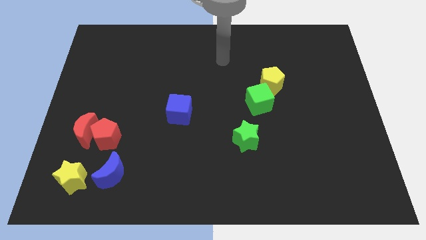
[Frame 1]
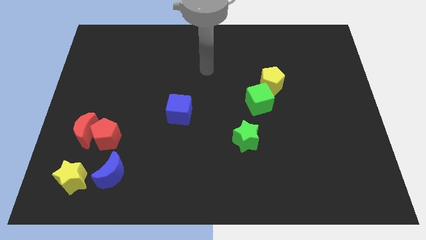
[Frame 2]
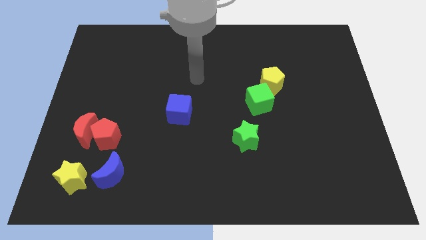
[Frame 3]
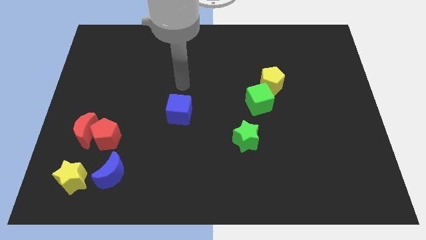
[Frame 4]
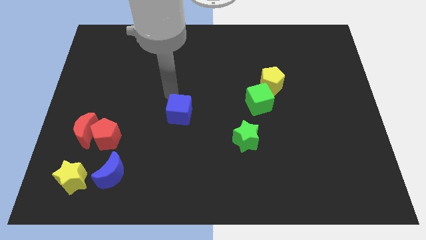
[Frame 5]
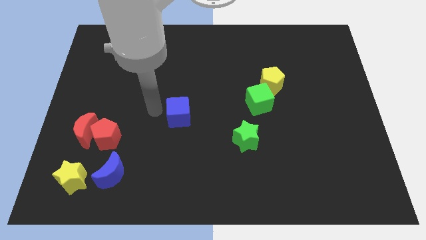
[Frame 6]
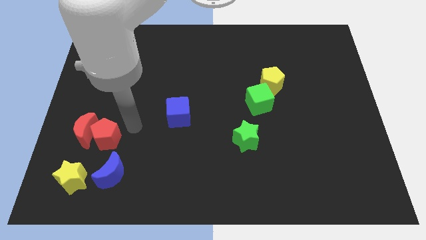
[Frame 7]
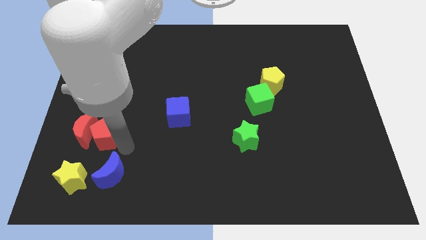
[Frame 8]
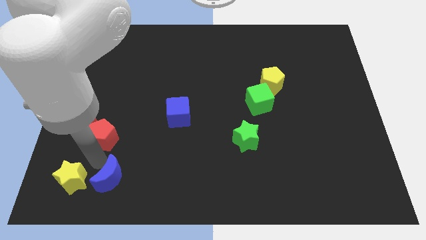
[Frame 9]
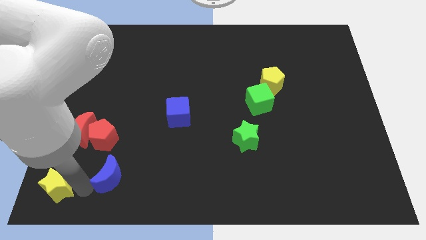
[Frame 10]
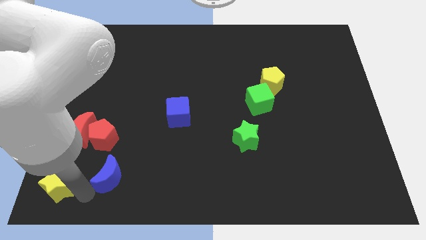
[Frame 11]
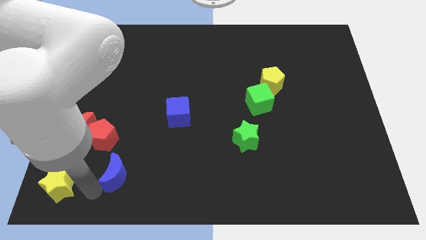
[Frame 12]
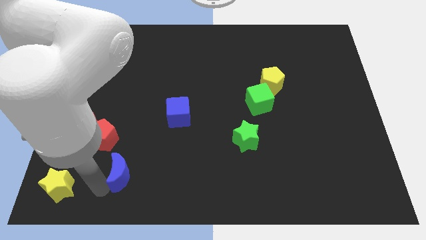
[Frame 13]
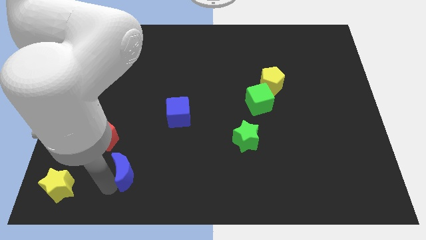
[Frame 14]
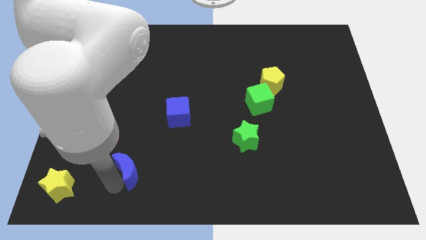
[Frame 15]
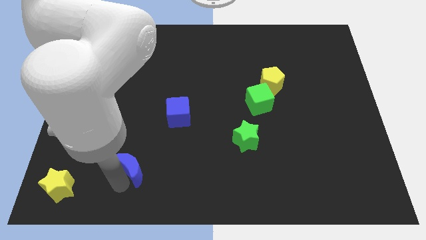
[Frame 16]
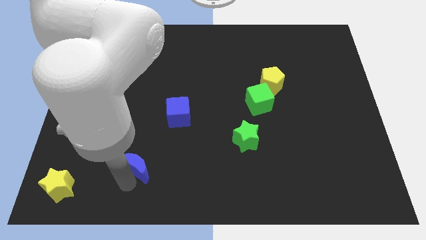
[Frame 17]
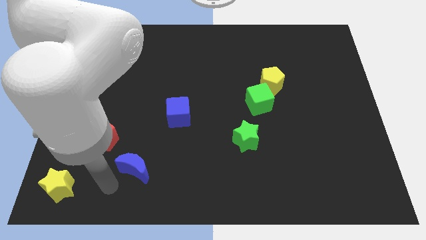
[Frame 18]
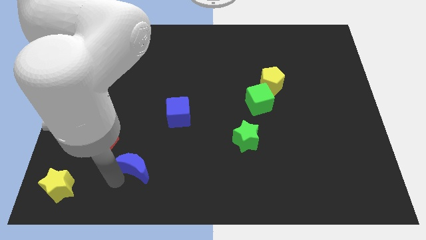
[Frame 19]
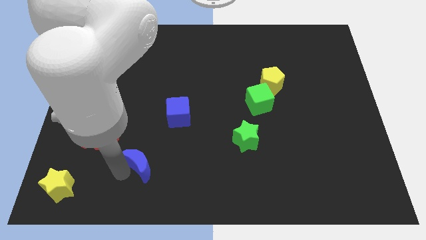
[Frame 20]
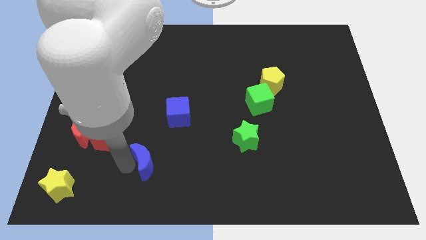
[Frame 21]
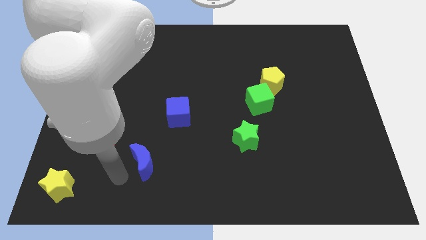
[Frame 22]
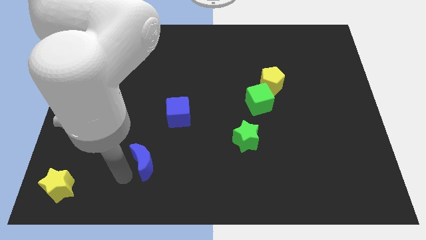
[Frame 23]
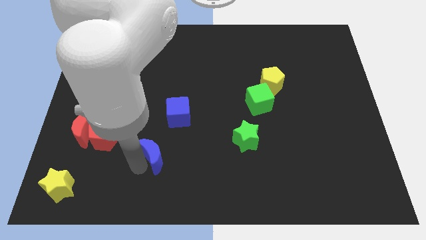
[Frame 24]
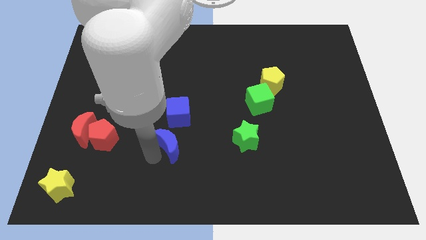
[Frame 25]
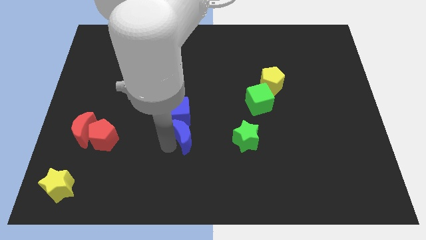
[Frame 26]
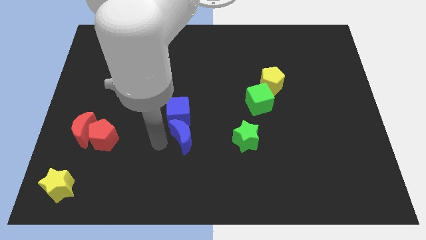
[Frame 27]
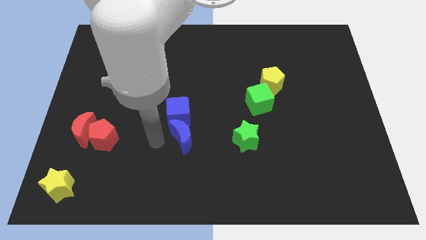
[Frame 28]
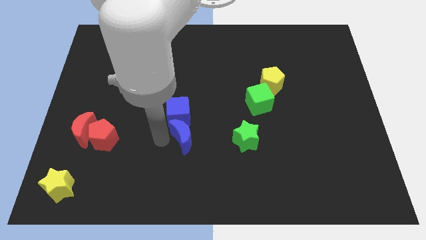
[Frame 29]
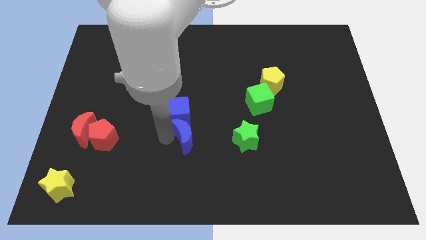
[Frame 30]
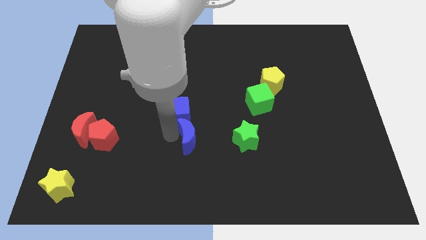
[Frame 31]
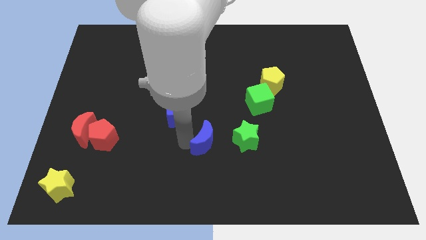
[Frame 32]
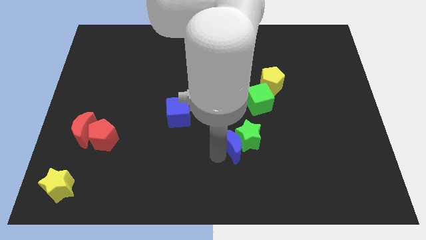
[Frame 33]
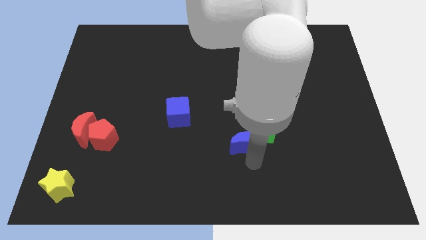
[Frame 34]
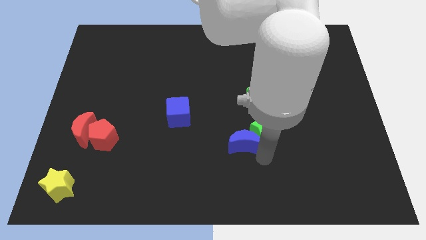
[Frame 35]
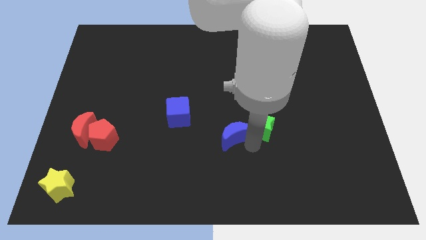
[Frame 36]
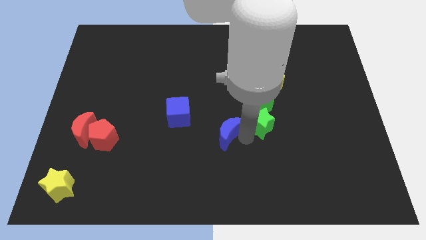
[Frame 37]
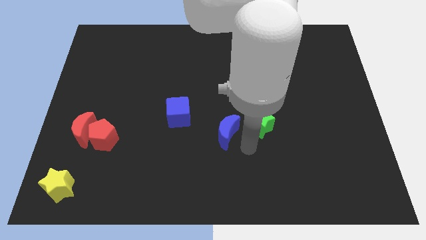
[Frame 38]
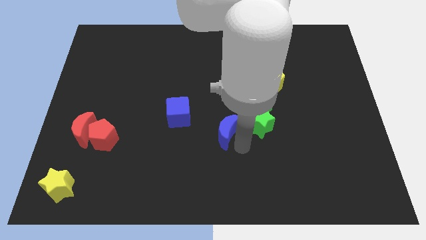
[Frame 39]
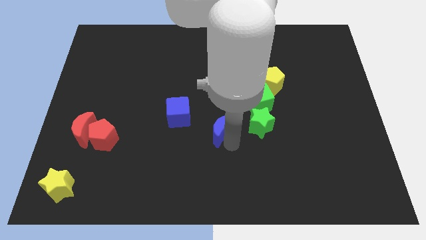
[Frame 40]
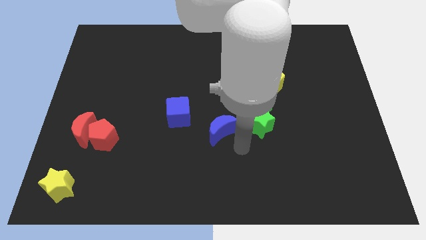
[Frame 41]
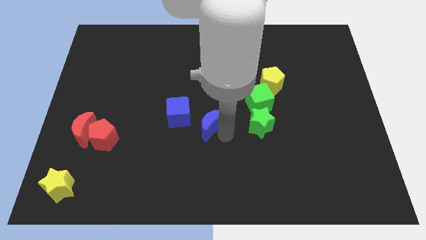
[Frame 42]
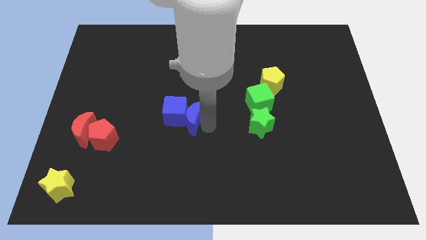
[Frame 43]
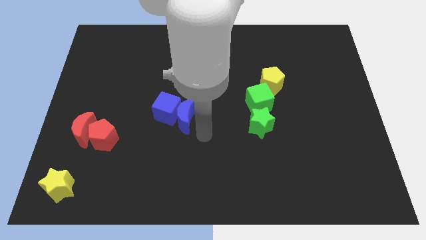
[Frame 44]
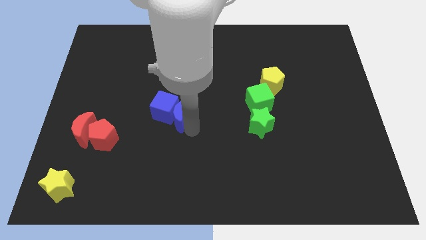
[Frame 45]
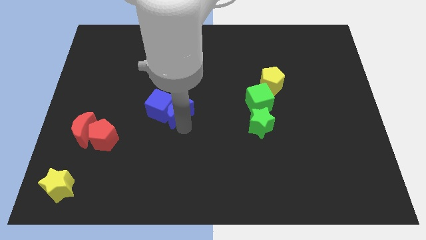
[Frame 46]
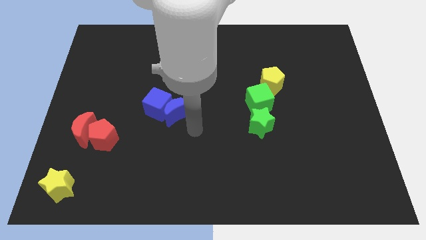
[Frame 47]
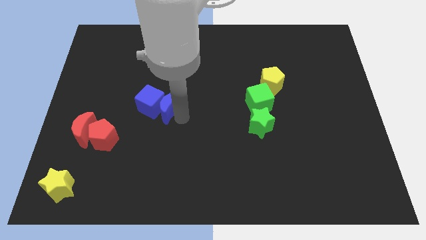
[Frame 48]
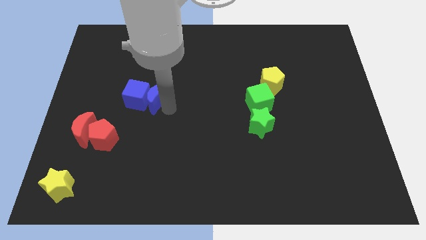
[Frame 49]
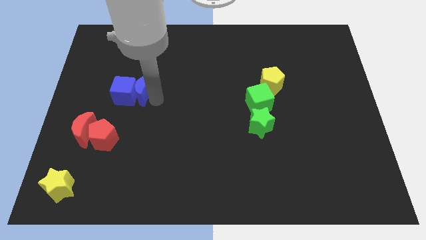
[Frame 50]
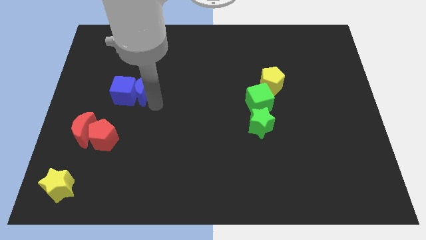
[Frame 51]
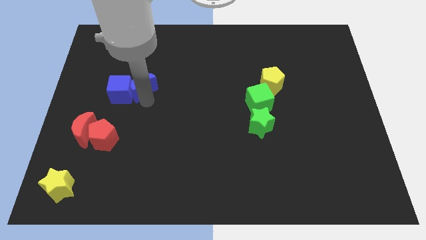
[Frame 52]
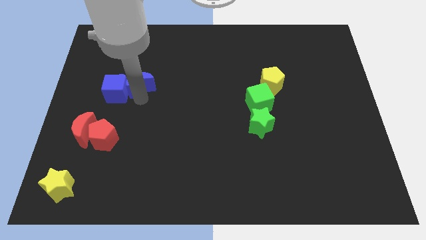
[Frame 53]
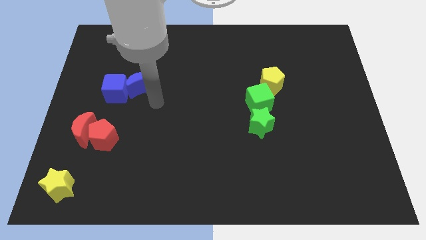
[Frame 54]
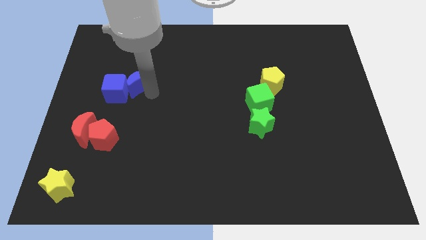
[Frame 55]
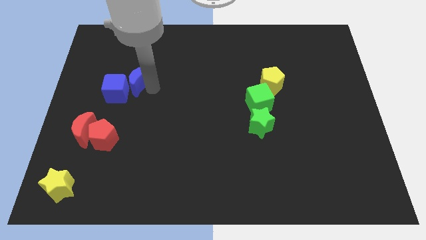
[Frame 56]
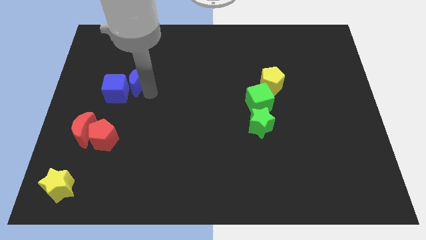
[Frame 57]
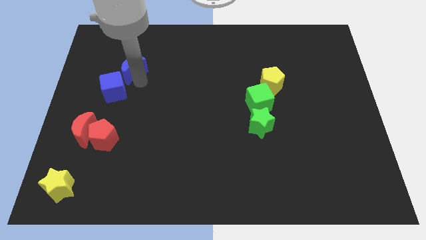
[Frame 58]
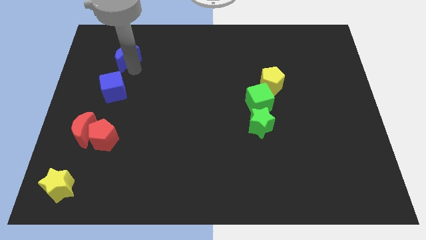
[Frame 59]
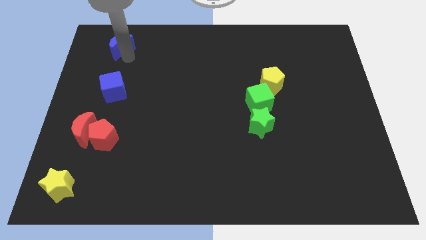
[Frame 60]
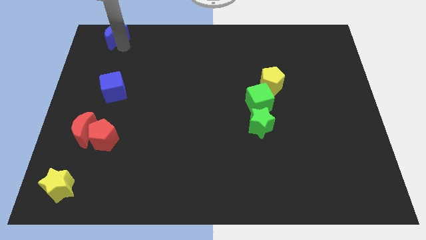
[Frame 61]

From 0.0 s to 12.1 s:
slide the blue moon to the top left corner
